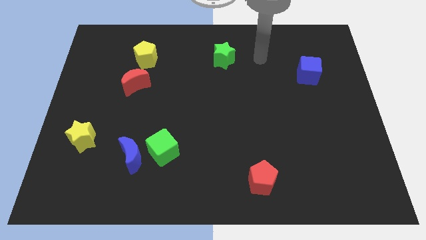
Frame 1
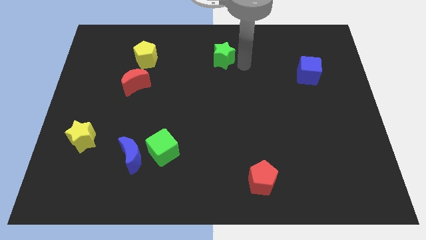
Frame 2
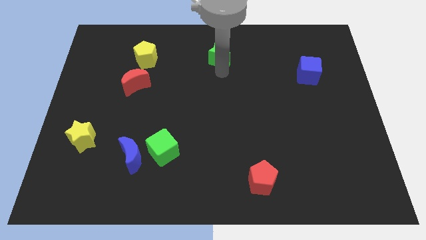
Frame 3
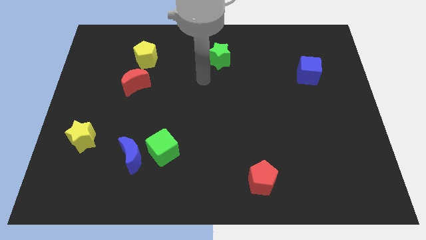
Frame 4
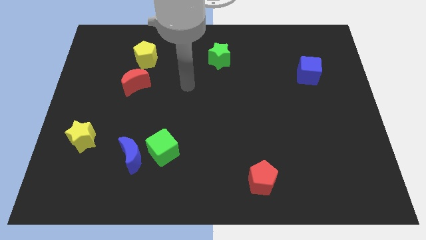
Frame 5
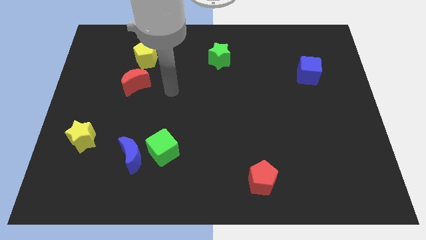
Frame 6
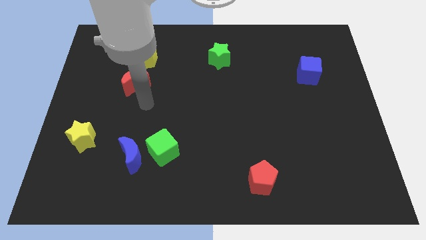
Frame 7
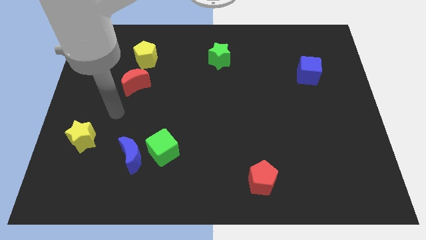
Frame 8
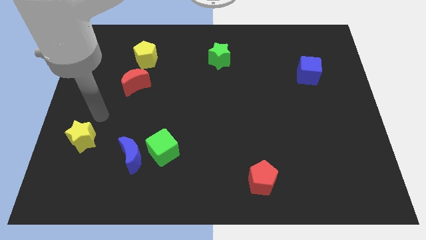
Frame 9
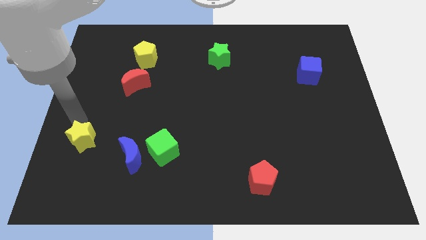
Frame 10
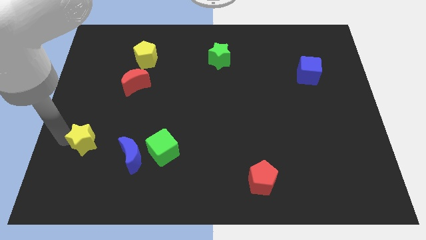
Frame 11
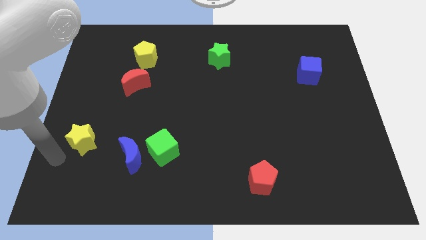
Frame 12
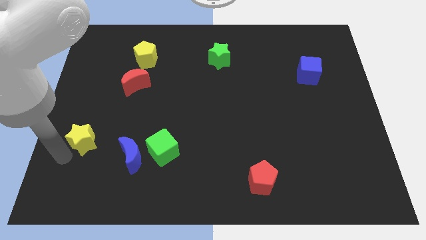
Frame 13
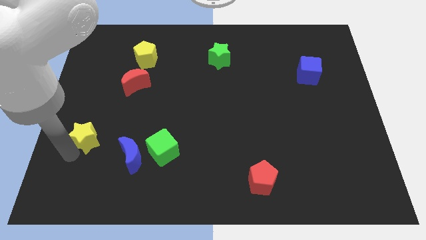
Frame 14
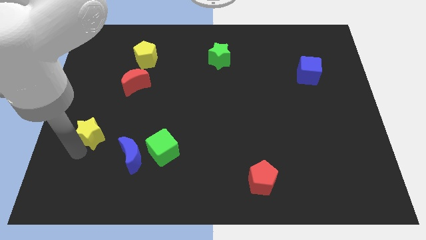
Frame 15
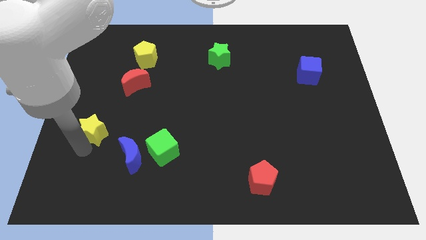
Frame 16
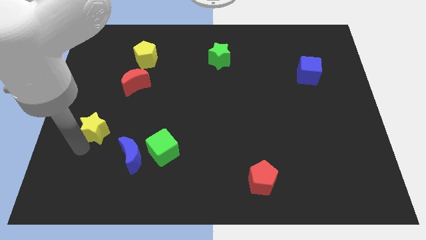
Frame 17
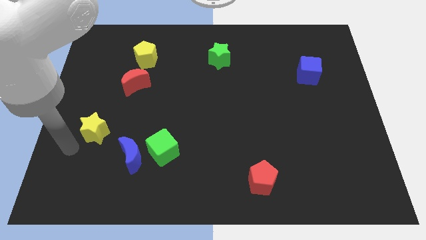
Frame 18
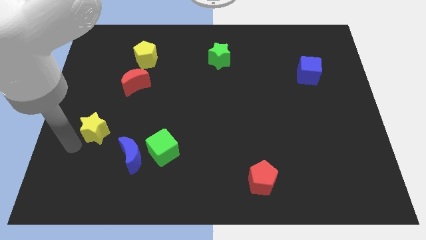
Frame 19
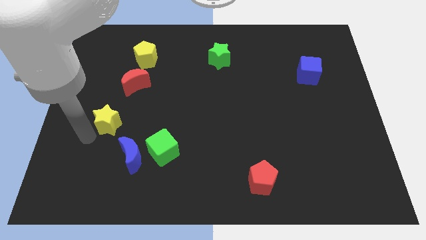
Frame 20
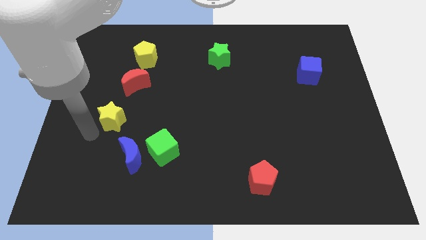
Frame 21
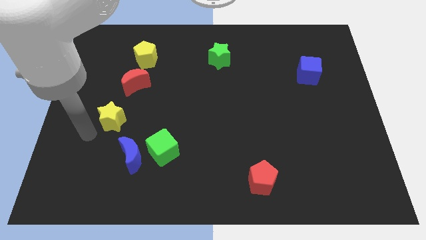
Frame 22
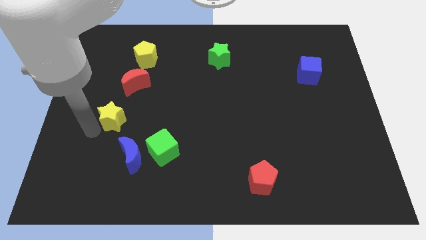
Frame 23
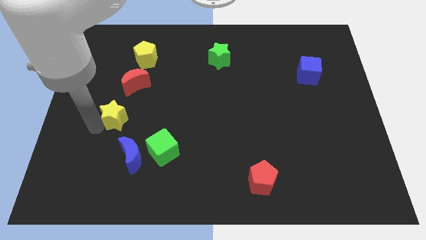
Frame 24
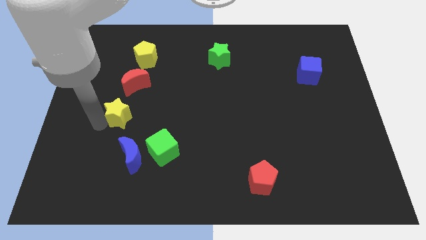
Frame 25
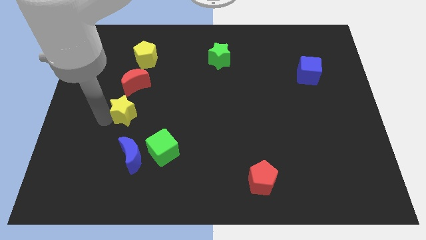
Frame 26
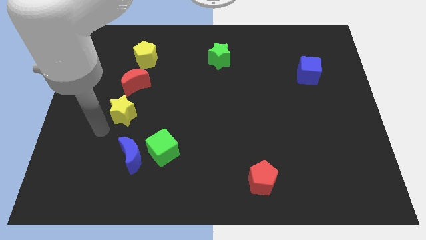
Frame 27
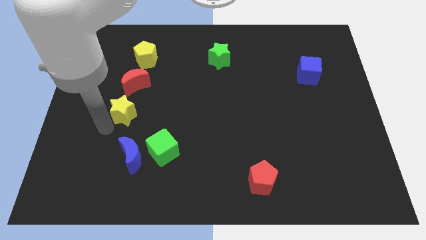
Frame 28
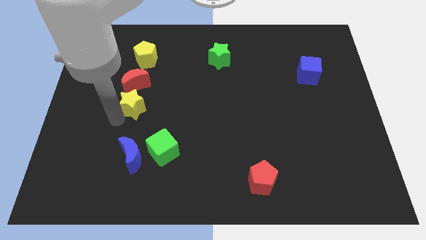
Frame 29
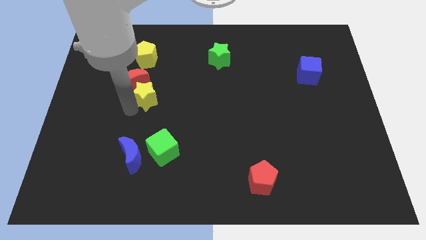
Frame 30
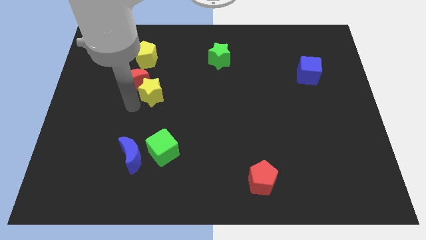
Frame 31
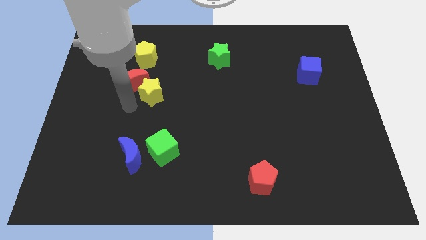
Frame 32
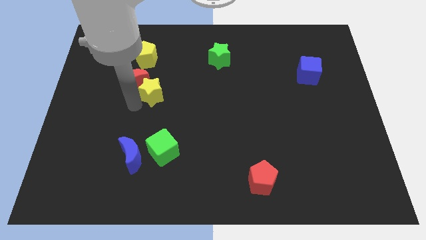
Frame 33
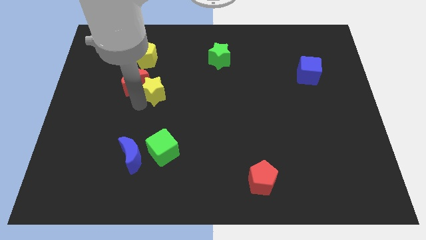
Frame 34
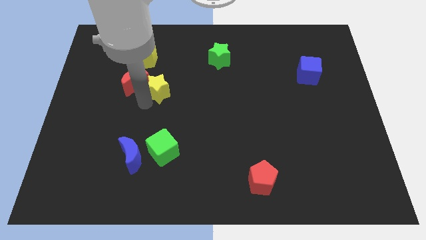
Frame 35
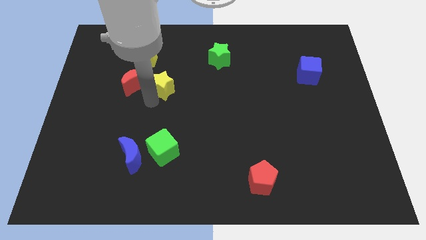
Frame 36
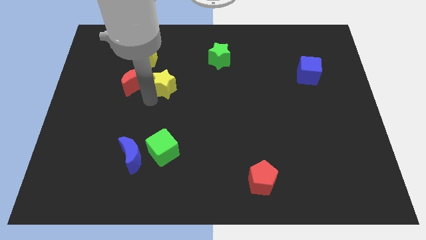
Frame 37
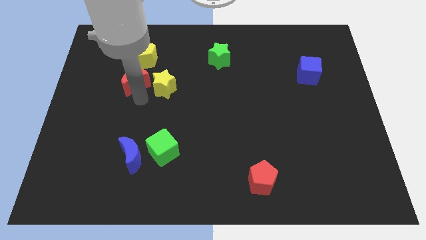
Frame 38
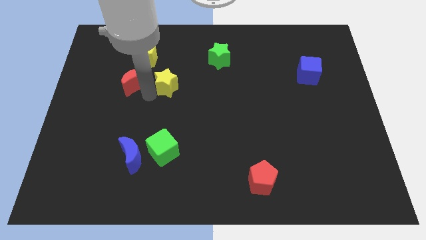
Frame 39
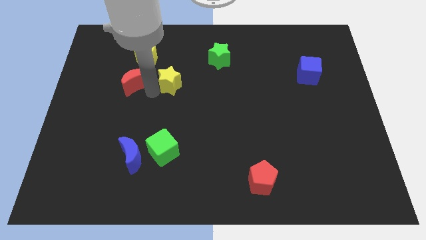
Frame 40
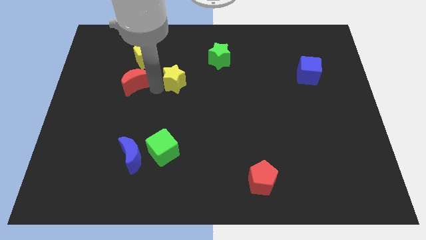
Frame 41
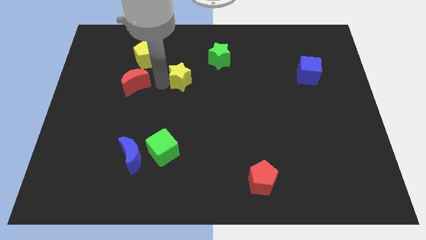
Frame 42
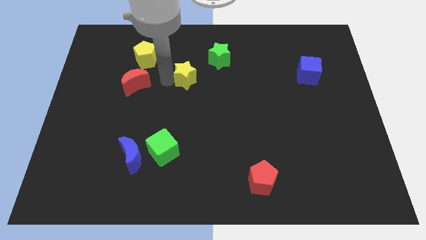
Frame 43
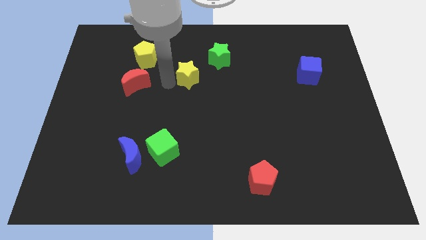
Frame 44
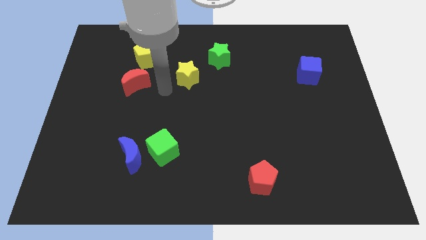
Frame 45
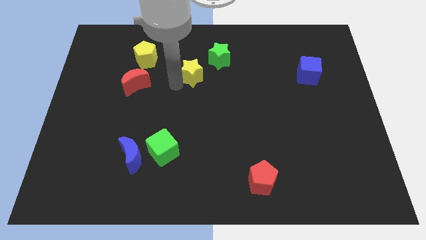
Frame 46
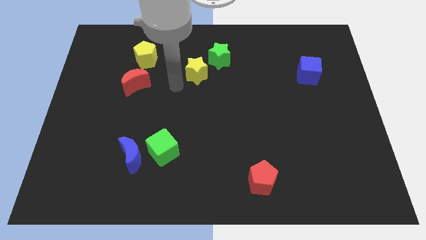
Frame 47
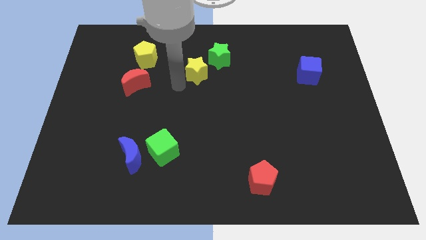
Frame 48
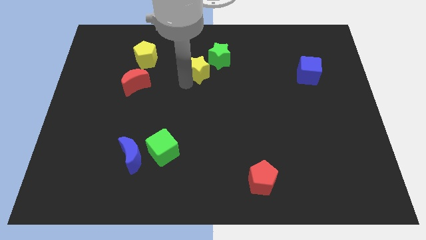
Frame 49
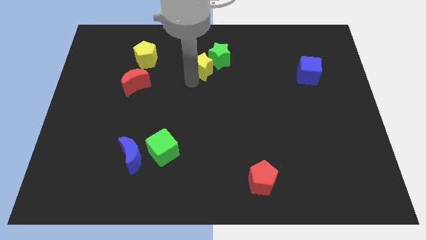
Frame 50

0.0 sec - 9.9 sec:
push the yellow star next to the green star
